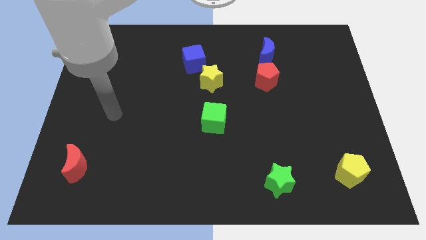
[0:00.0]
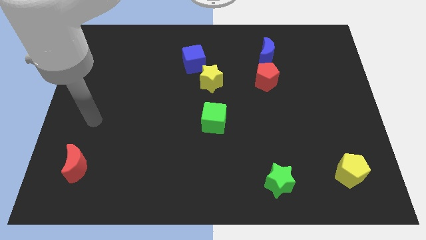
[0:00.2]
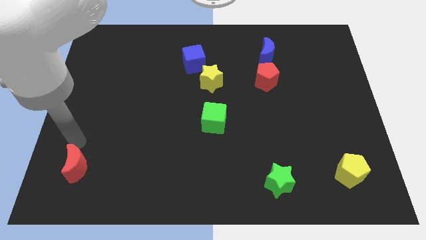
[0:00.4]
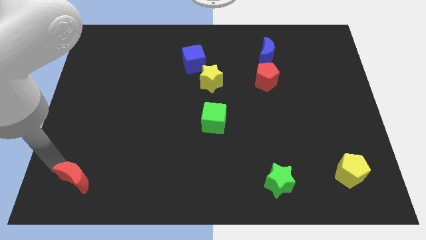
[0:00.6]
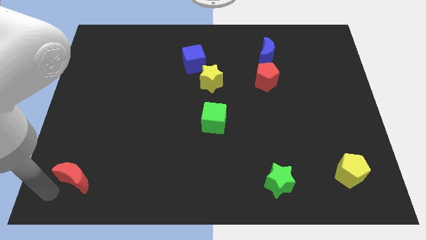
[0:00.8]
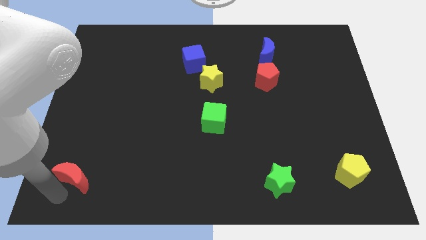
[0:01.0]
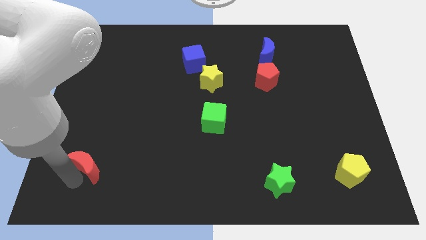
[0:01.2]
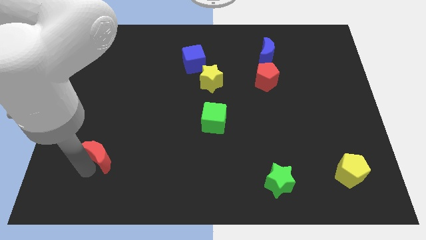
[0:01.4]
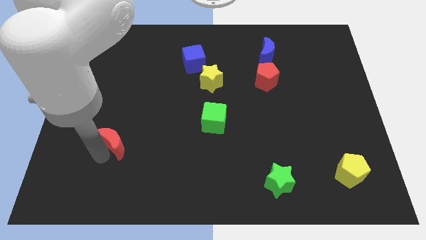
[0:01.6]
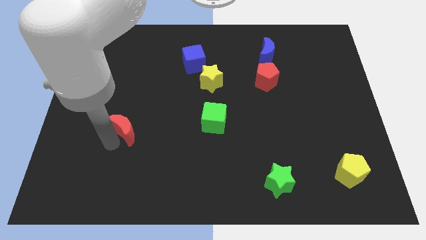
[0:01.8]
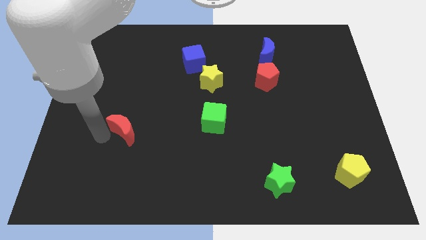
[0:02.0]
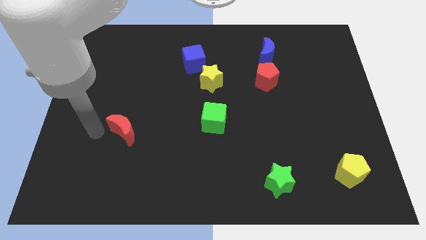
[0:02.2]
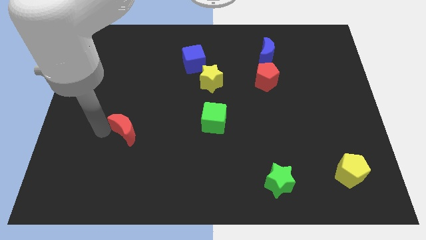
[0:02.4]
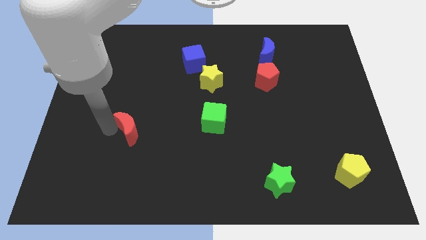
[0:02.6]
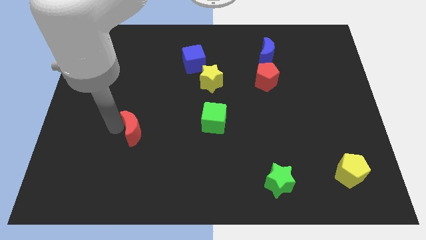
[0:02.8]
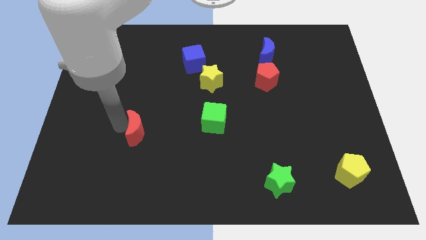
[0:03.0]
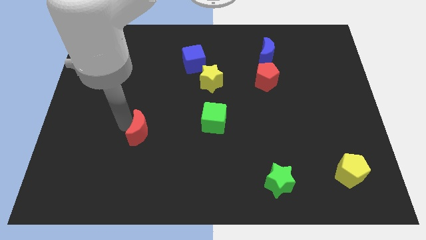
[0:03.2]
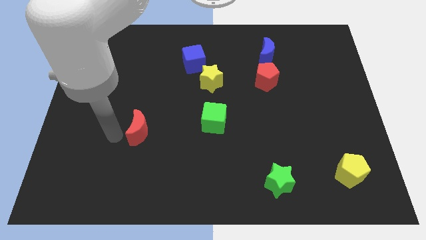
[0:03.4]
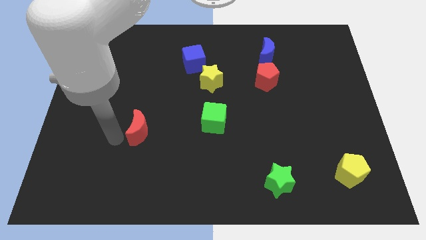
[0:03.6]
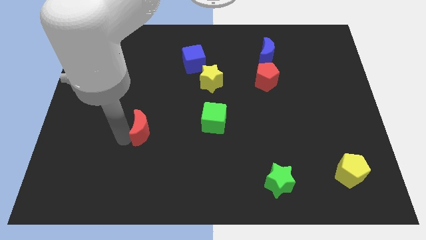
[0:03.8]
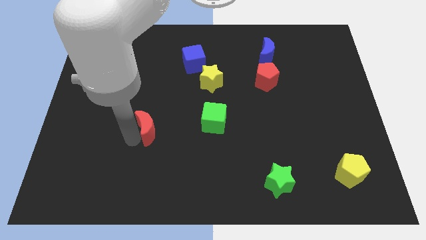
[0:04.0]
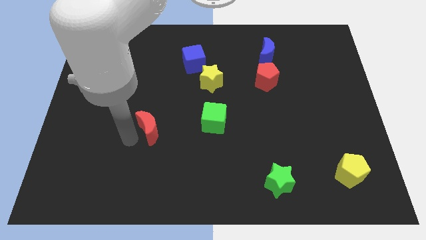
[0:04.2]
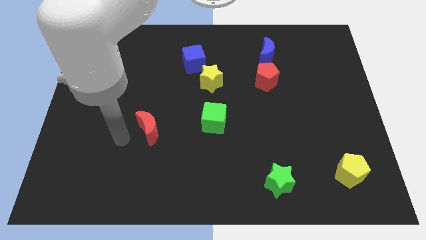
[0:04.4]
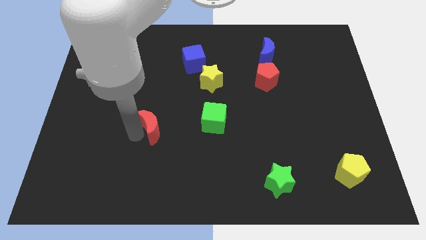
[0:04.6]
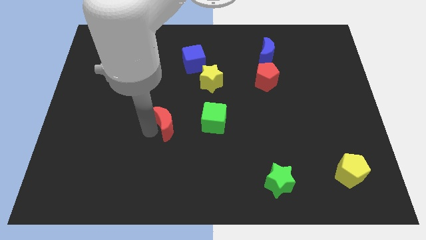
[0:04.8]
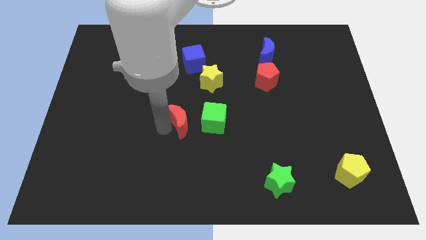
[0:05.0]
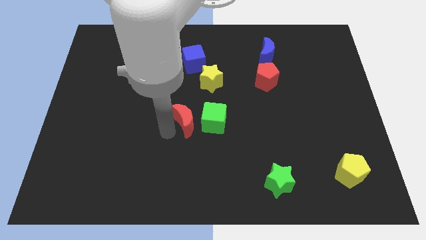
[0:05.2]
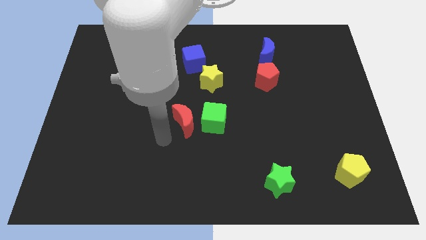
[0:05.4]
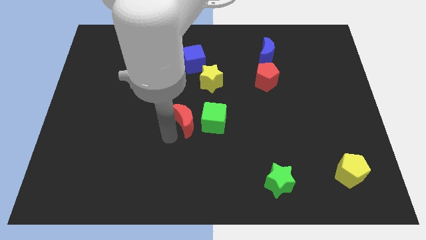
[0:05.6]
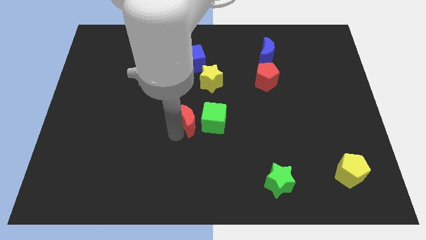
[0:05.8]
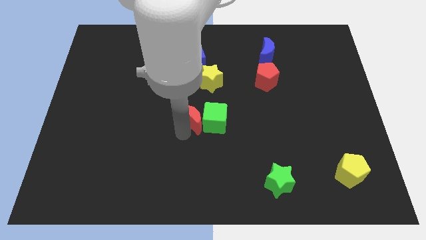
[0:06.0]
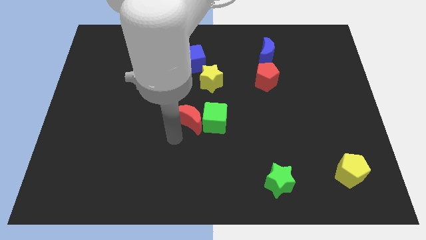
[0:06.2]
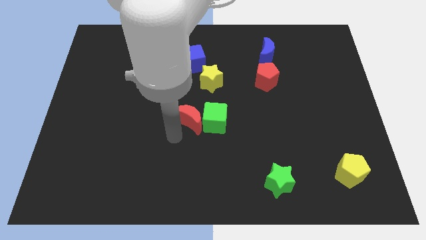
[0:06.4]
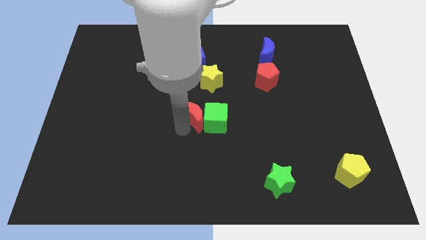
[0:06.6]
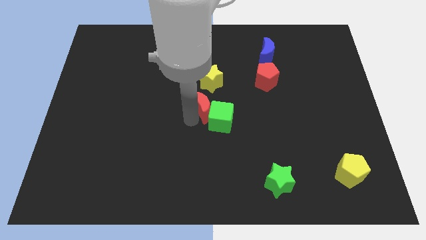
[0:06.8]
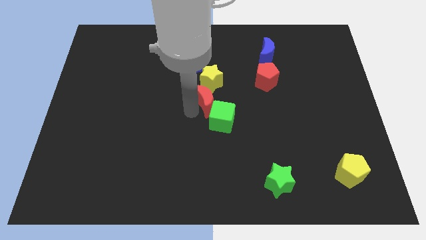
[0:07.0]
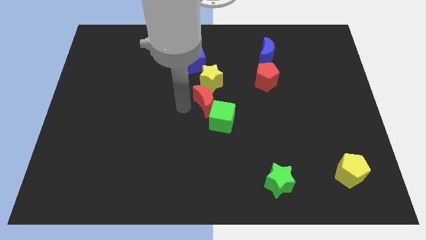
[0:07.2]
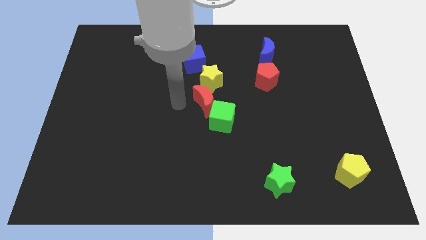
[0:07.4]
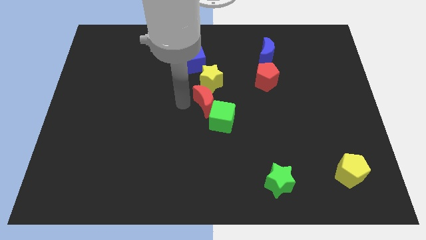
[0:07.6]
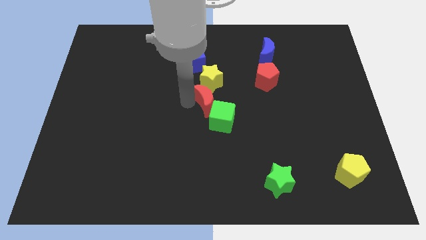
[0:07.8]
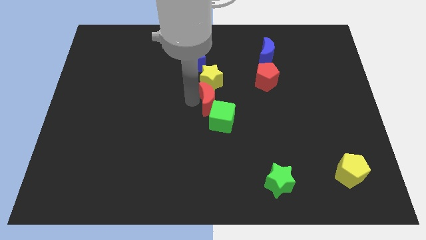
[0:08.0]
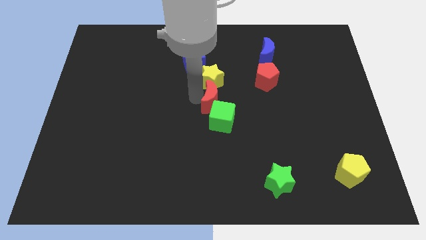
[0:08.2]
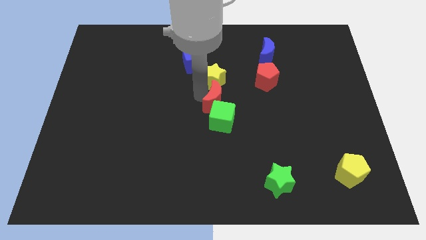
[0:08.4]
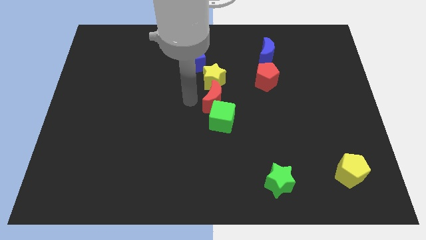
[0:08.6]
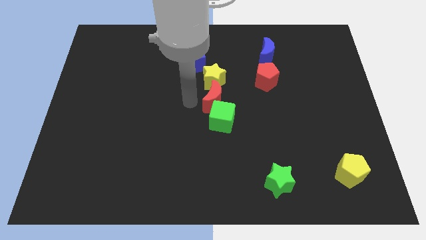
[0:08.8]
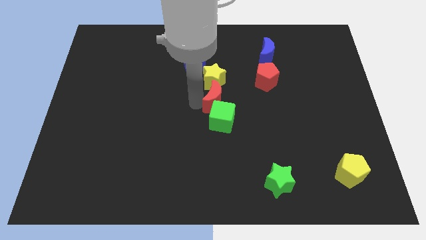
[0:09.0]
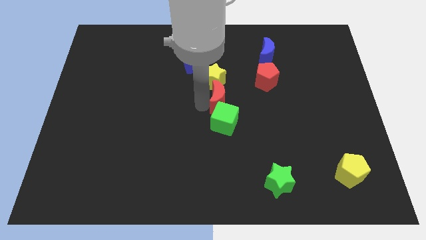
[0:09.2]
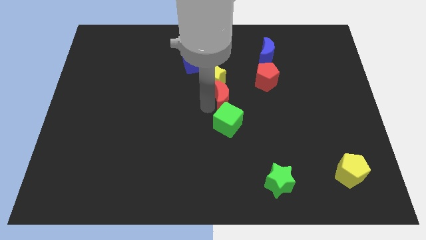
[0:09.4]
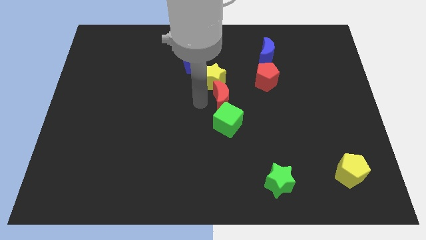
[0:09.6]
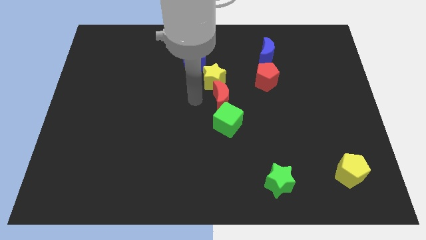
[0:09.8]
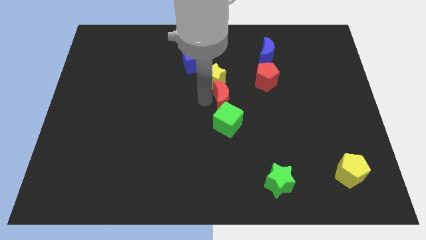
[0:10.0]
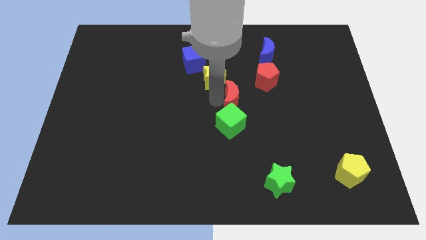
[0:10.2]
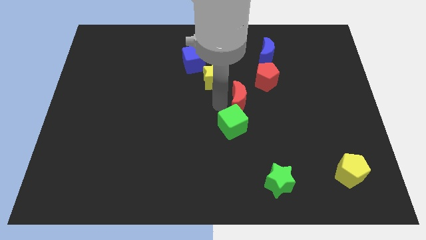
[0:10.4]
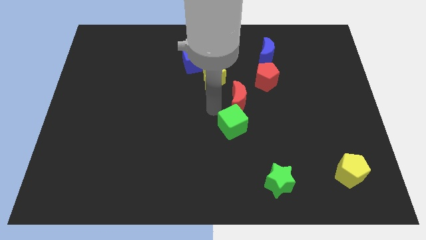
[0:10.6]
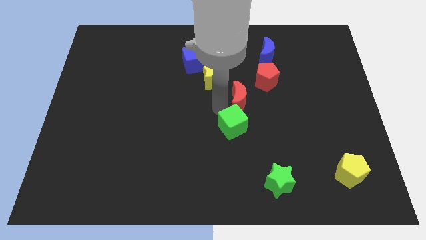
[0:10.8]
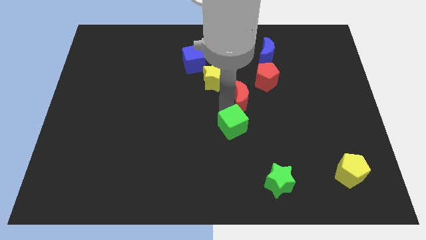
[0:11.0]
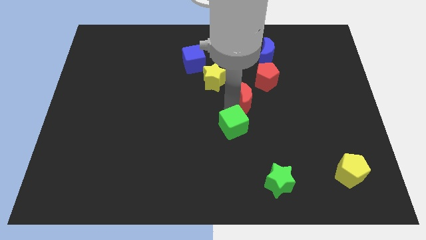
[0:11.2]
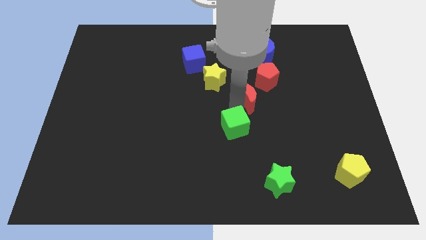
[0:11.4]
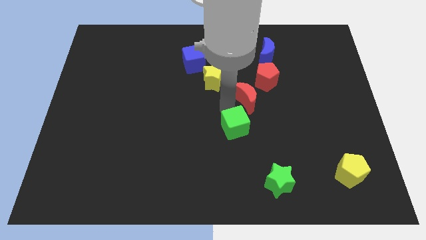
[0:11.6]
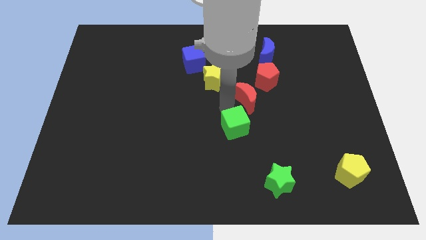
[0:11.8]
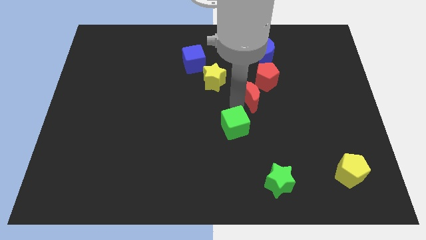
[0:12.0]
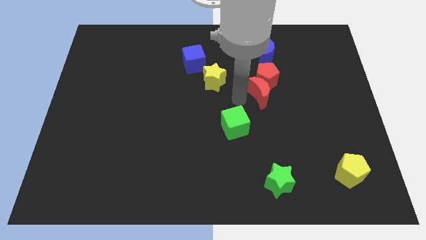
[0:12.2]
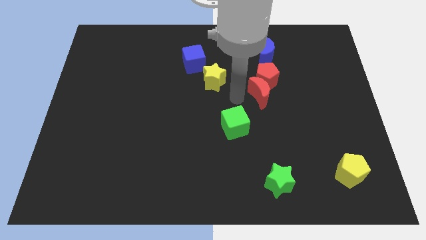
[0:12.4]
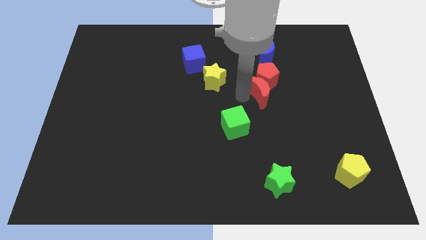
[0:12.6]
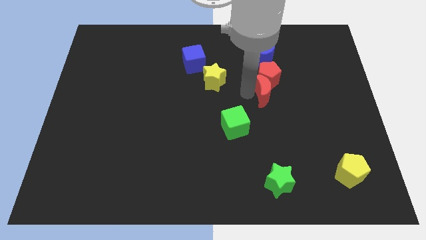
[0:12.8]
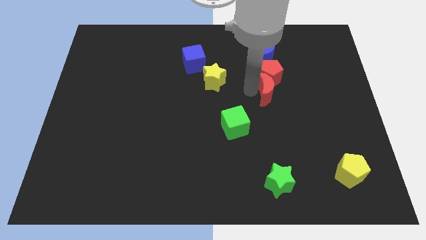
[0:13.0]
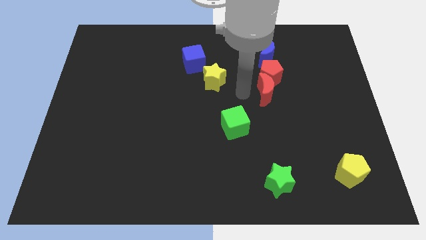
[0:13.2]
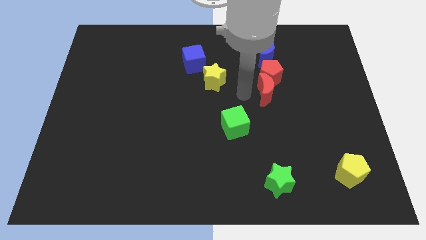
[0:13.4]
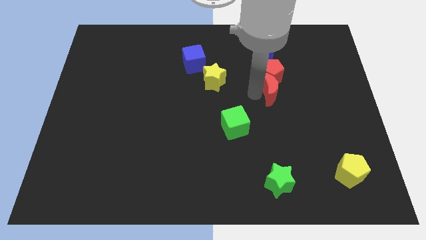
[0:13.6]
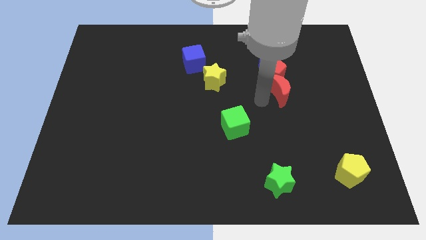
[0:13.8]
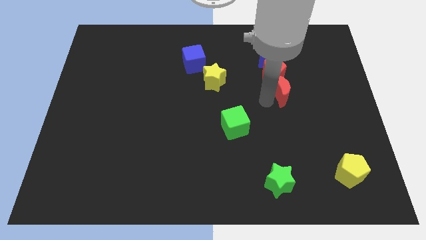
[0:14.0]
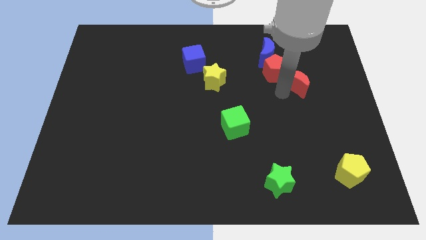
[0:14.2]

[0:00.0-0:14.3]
put the red moon to the right side of the red pentagon
